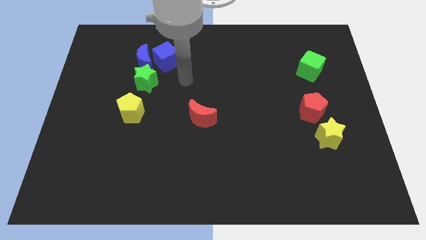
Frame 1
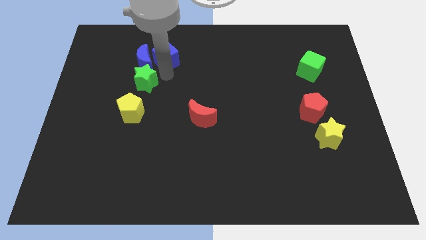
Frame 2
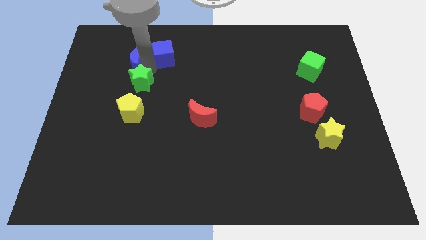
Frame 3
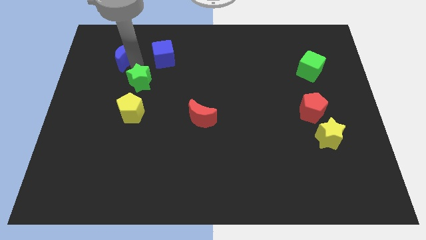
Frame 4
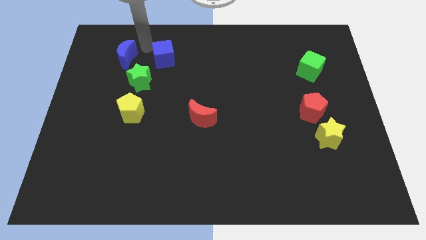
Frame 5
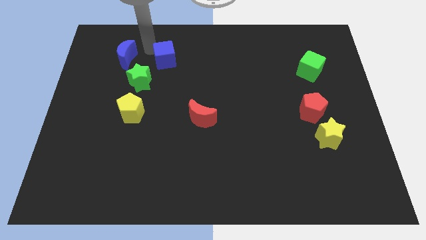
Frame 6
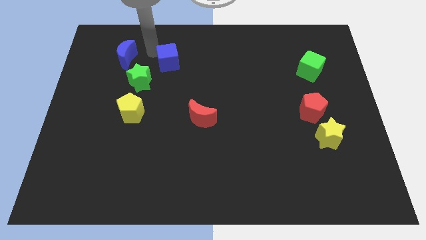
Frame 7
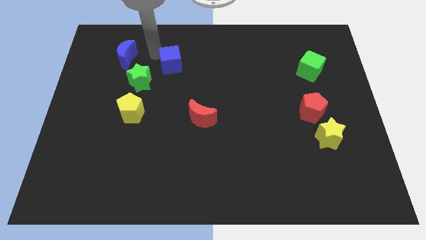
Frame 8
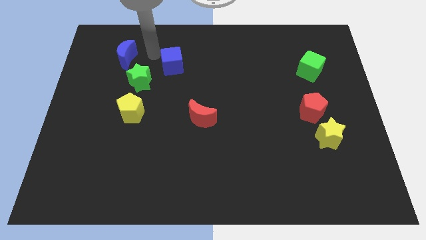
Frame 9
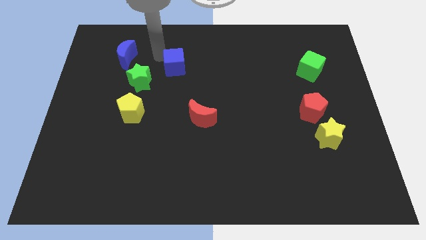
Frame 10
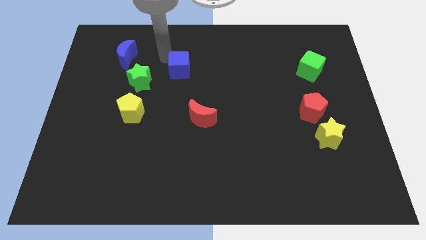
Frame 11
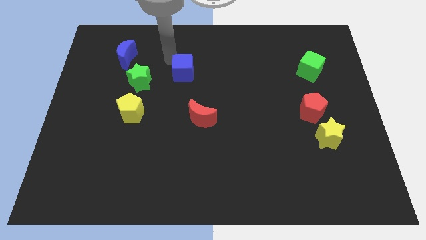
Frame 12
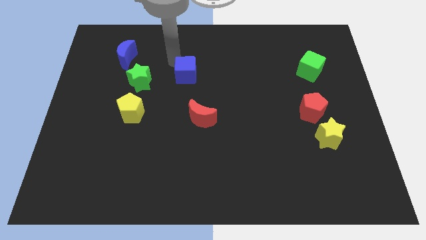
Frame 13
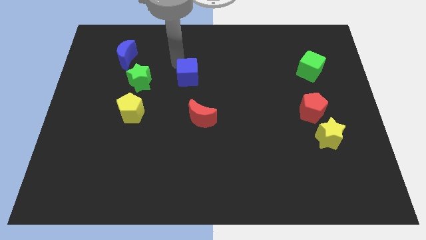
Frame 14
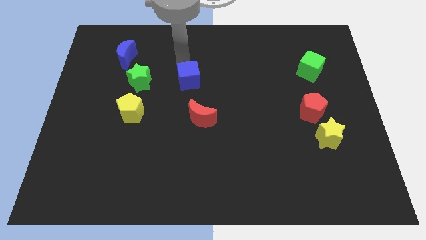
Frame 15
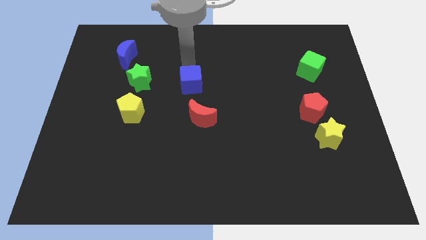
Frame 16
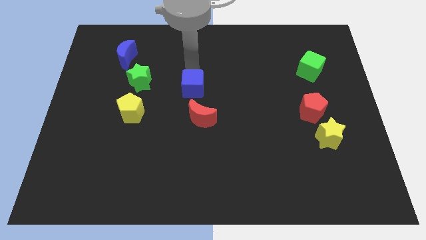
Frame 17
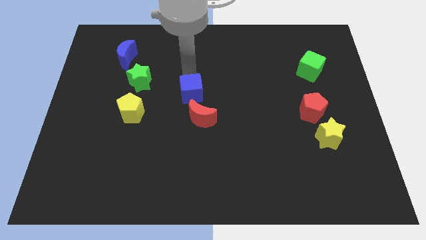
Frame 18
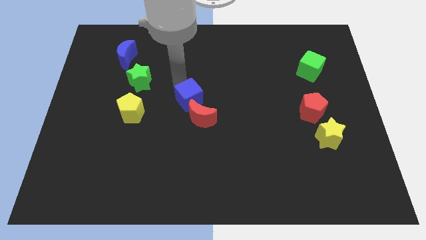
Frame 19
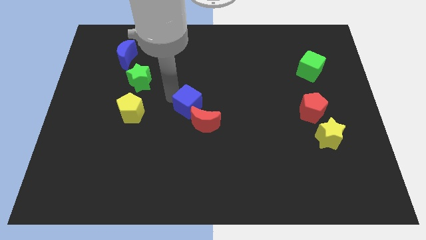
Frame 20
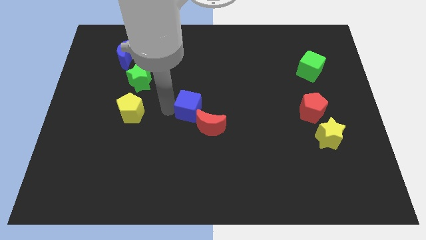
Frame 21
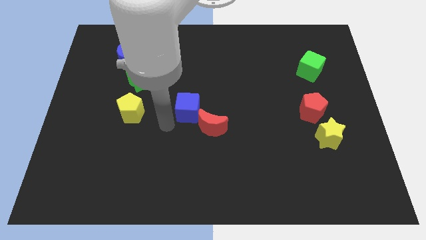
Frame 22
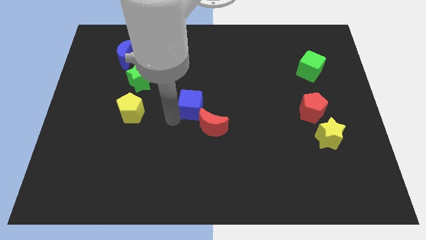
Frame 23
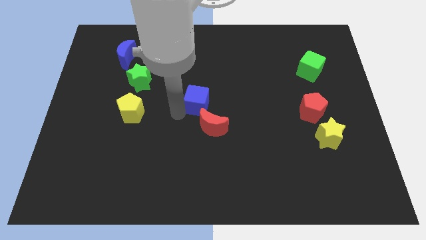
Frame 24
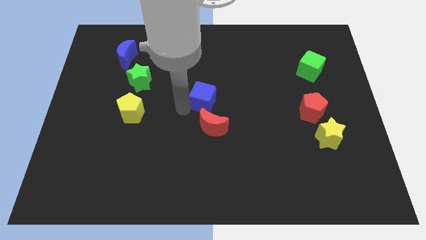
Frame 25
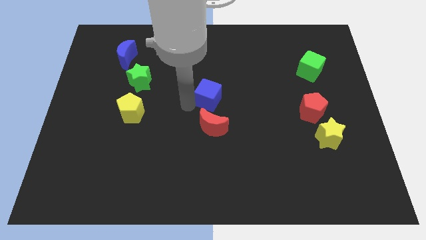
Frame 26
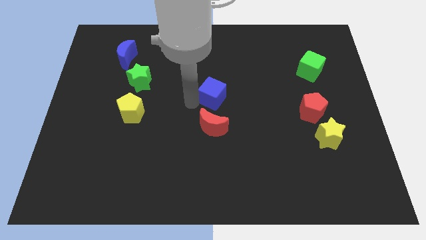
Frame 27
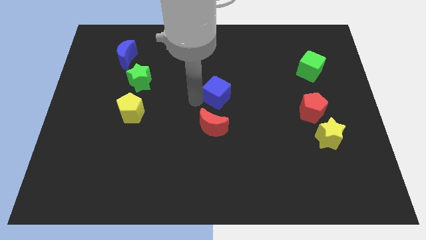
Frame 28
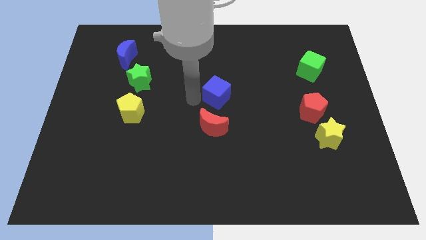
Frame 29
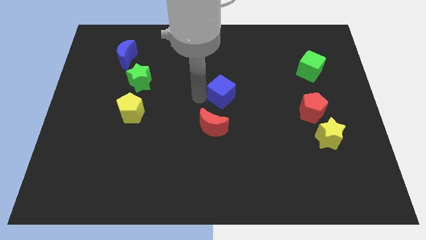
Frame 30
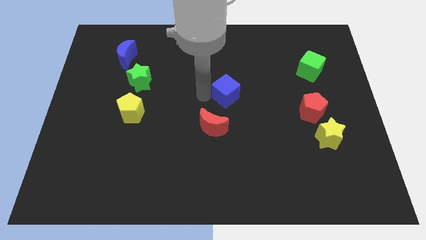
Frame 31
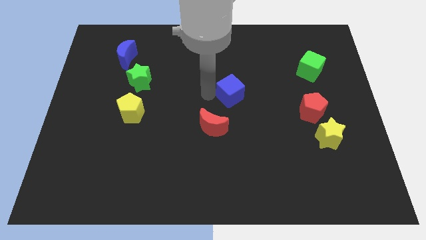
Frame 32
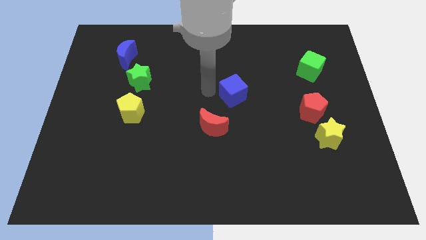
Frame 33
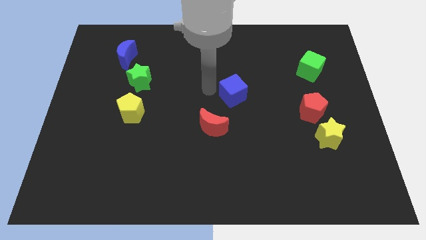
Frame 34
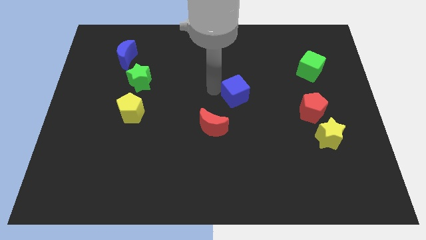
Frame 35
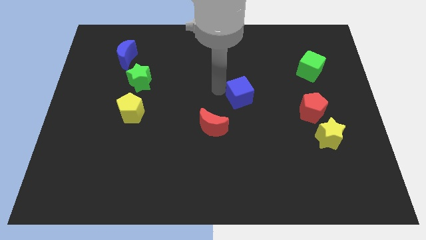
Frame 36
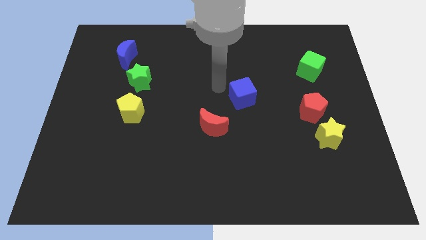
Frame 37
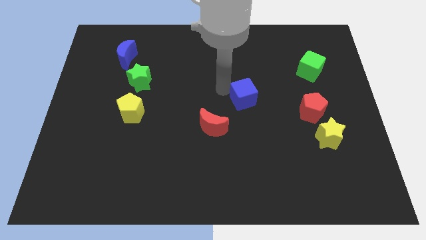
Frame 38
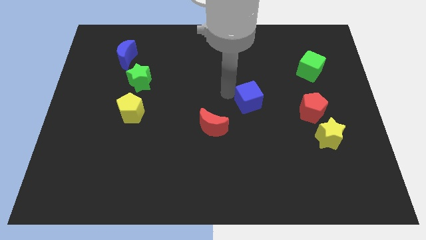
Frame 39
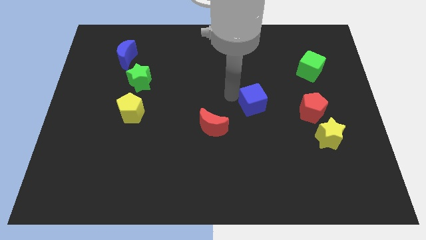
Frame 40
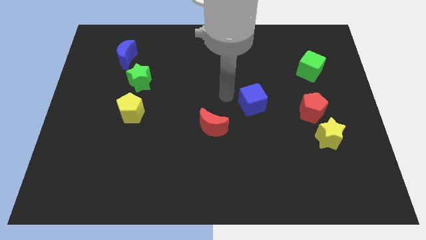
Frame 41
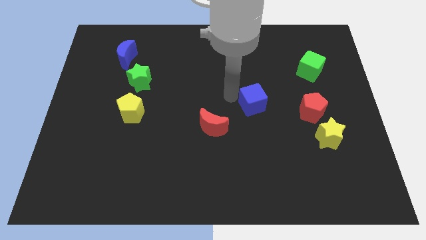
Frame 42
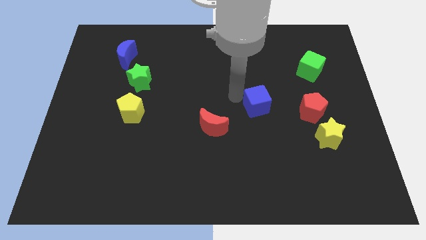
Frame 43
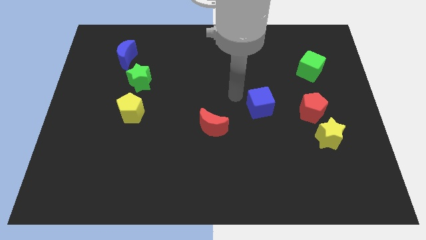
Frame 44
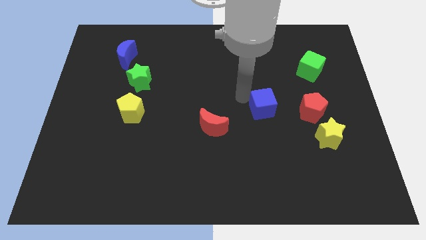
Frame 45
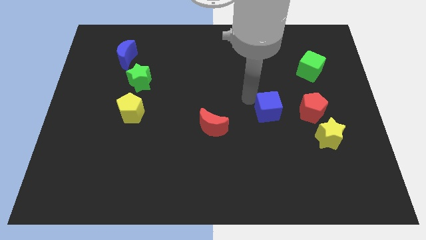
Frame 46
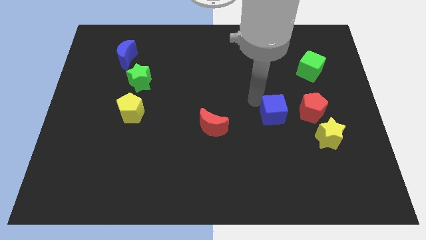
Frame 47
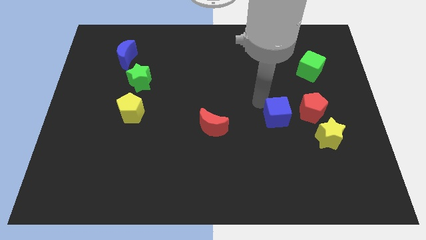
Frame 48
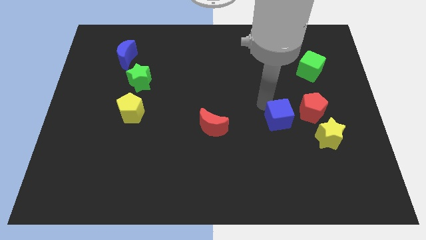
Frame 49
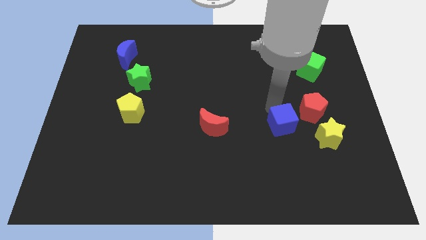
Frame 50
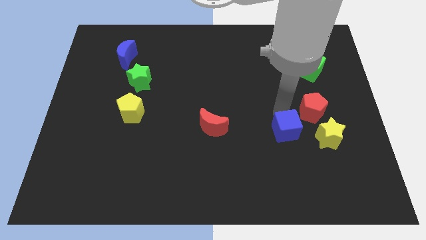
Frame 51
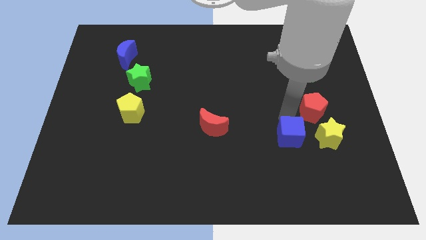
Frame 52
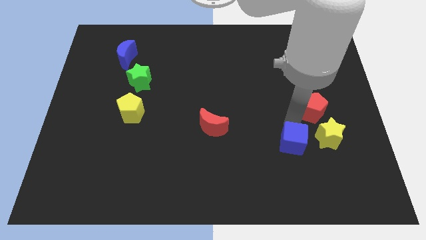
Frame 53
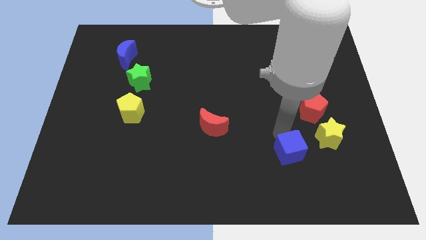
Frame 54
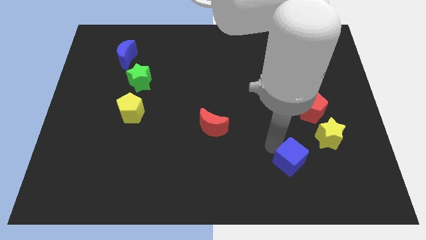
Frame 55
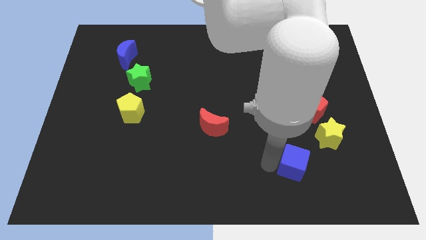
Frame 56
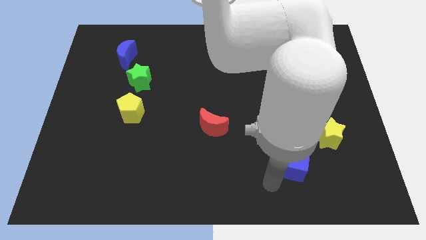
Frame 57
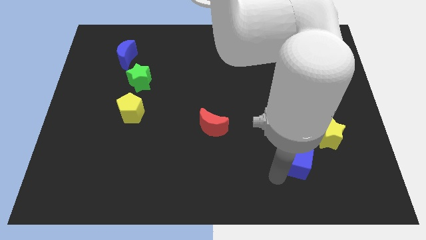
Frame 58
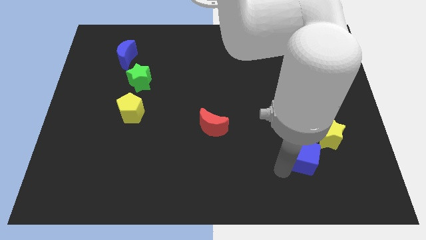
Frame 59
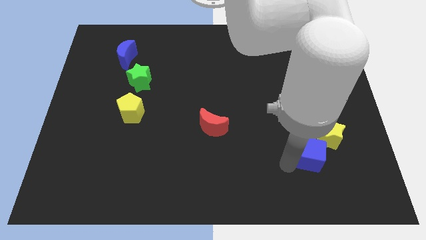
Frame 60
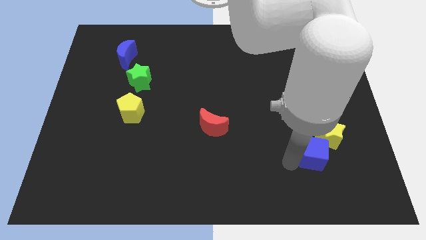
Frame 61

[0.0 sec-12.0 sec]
slide the blue cube next to the yellow star
